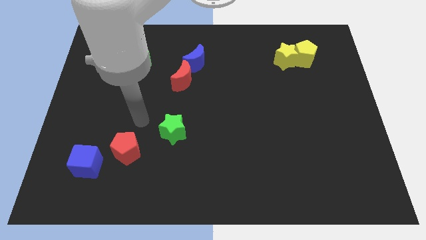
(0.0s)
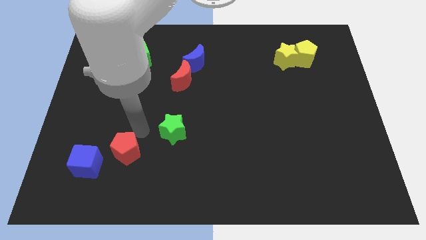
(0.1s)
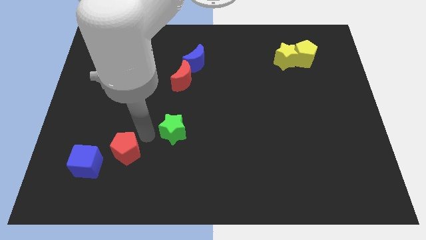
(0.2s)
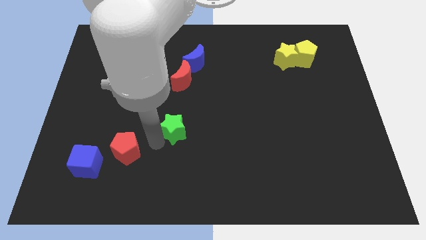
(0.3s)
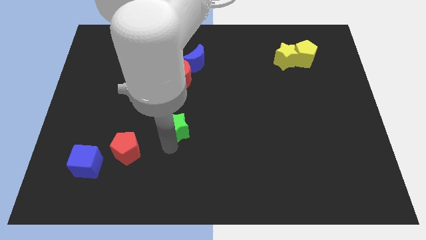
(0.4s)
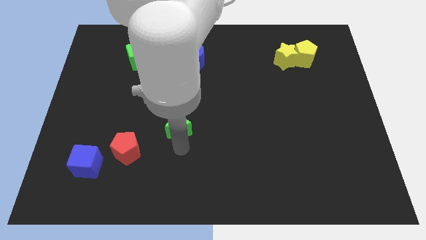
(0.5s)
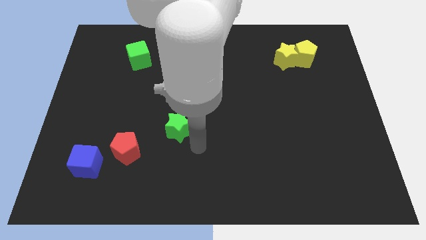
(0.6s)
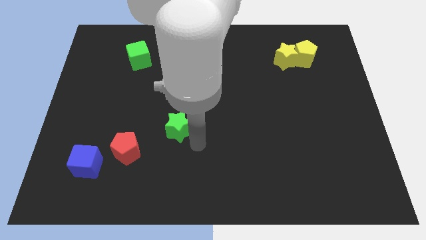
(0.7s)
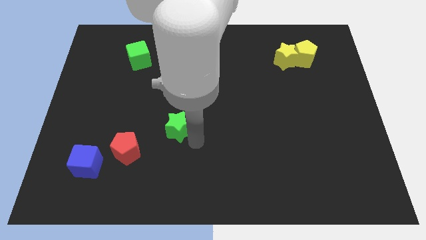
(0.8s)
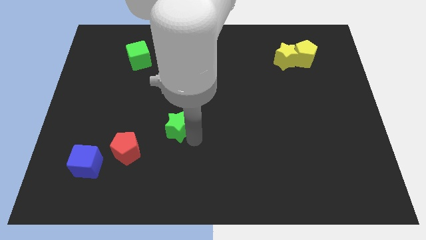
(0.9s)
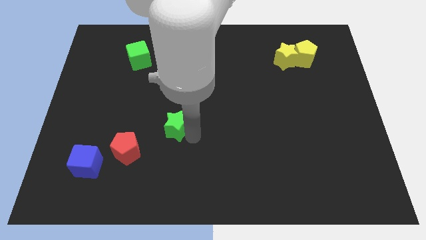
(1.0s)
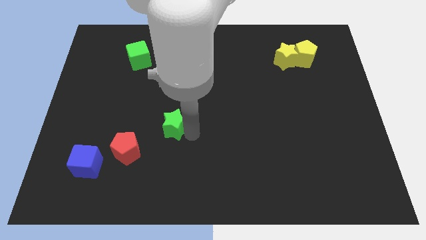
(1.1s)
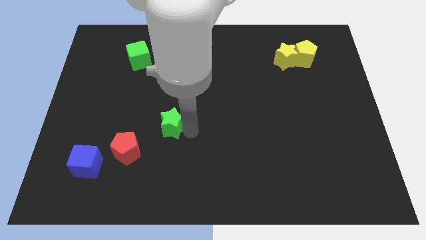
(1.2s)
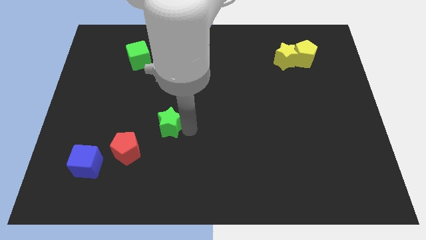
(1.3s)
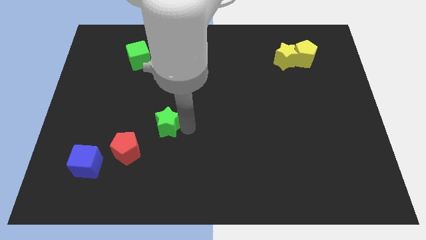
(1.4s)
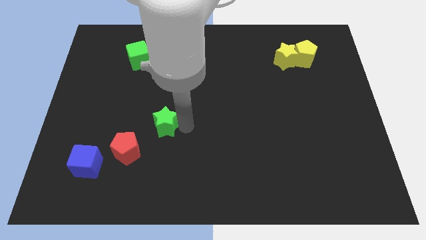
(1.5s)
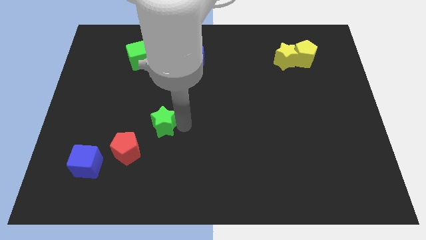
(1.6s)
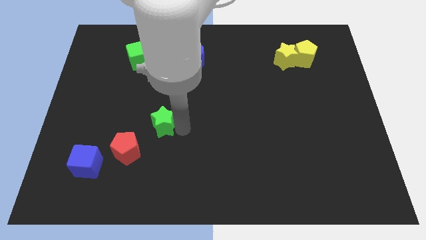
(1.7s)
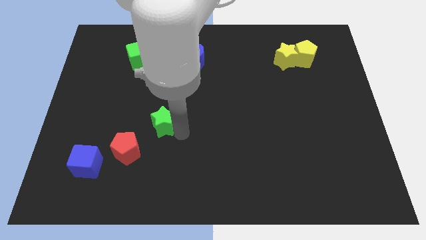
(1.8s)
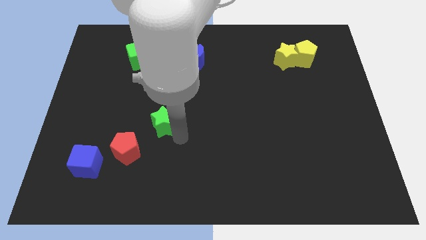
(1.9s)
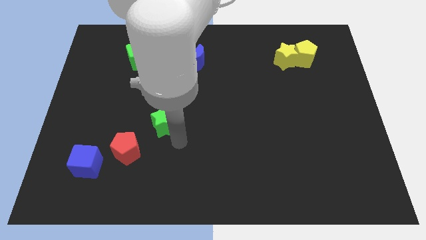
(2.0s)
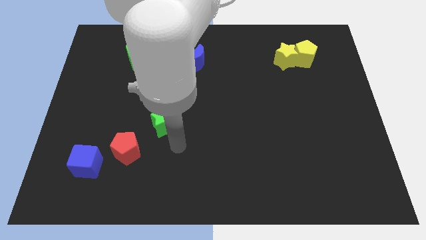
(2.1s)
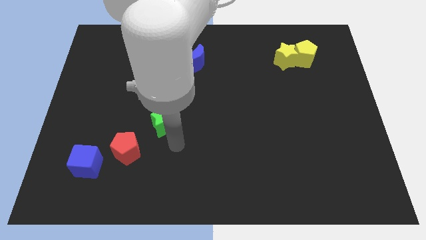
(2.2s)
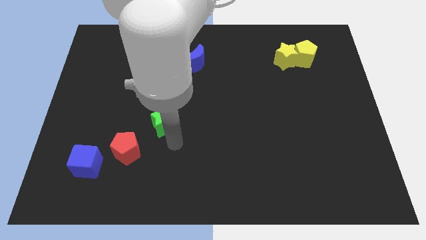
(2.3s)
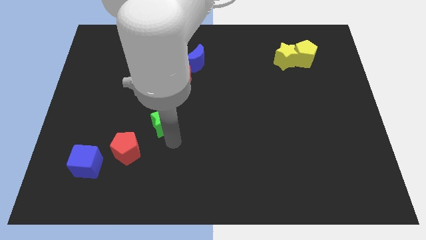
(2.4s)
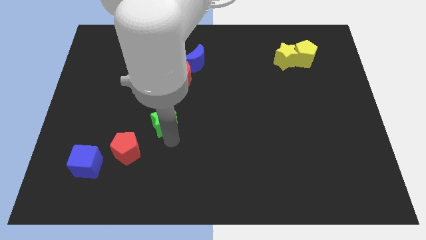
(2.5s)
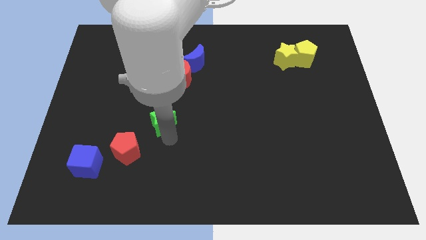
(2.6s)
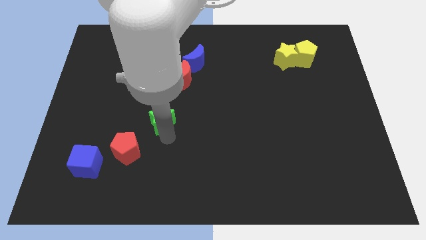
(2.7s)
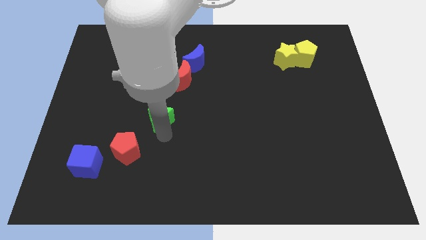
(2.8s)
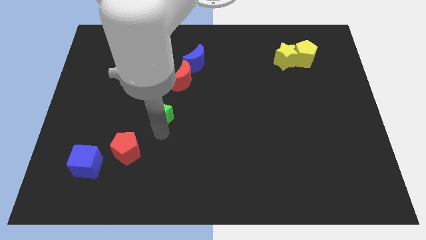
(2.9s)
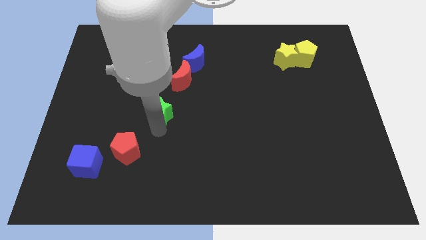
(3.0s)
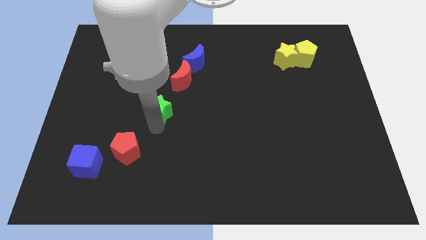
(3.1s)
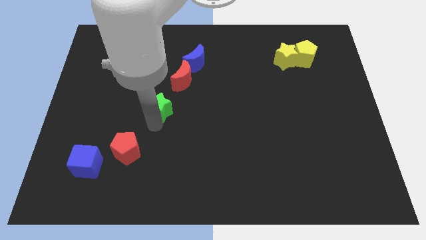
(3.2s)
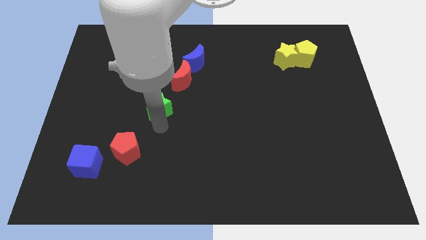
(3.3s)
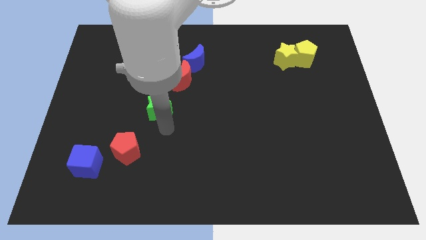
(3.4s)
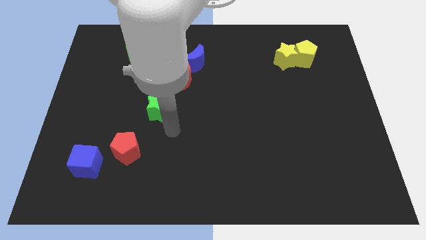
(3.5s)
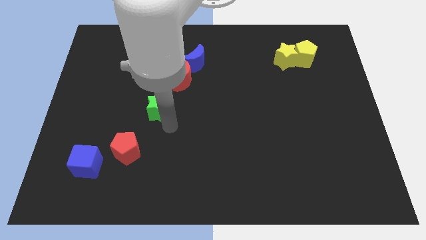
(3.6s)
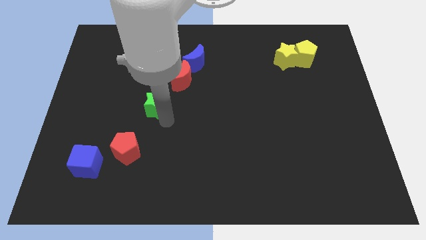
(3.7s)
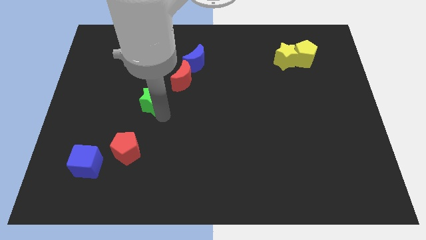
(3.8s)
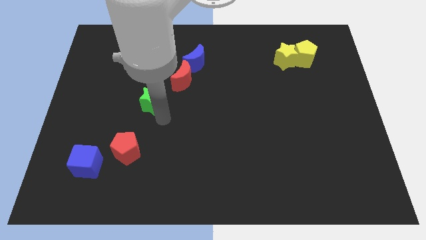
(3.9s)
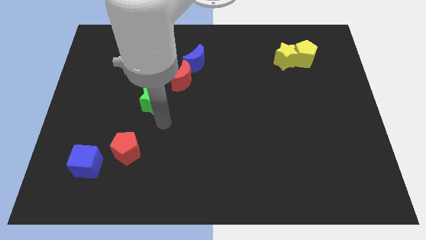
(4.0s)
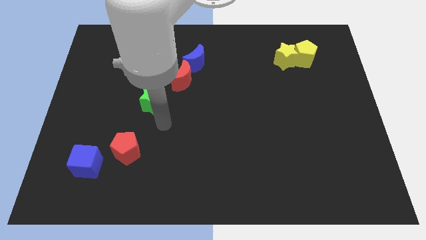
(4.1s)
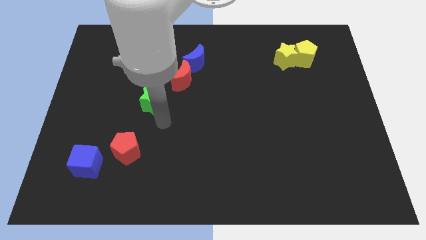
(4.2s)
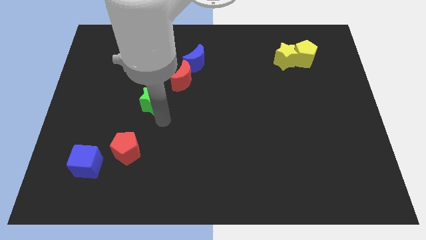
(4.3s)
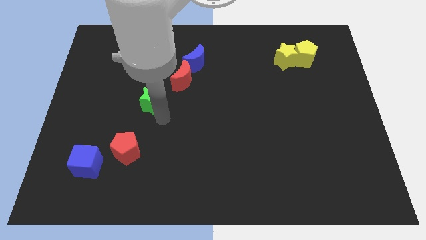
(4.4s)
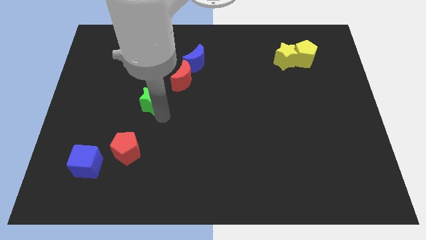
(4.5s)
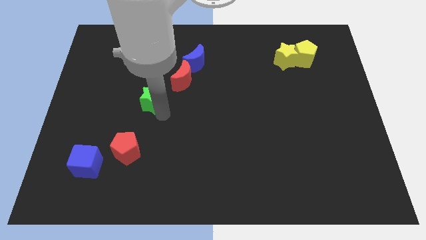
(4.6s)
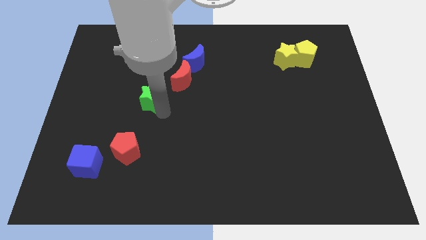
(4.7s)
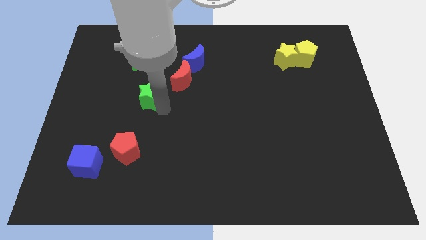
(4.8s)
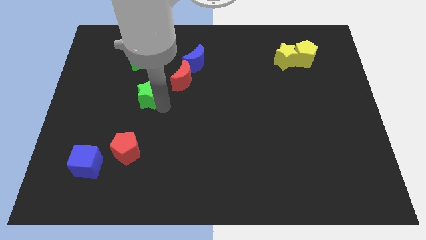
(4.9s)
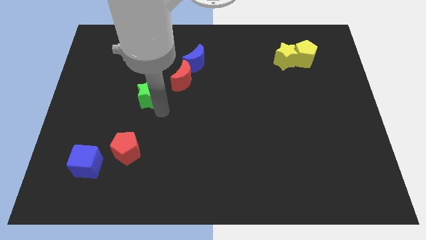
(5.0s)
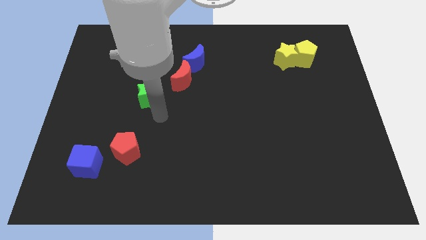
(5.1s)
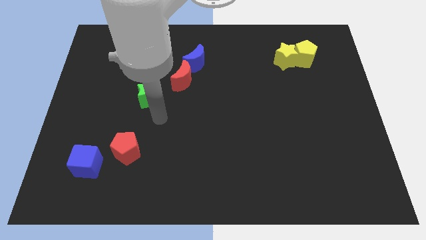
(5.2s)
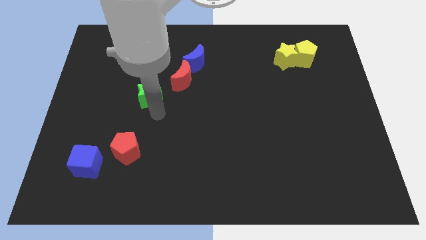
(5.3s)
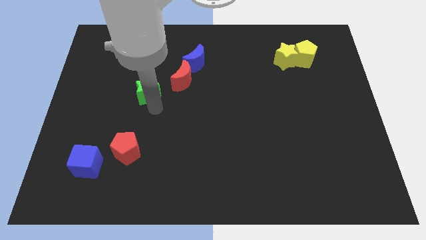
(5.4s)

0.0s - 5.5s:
move the green star left of the red moon

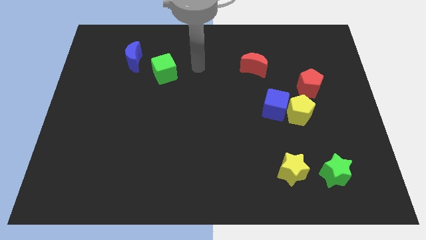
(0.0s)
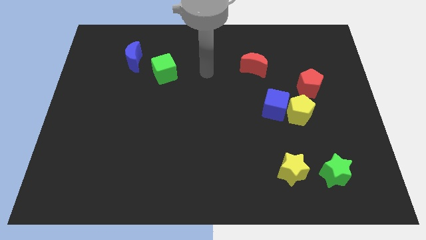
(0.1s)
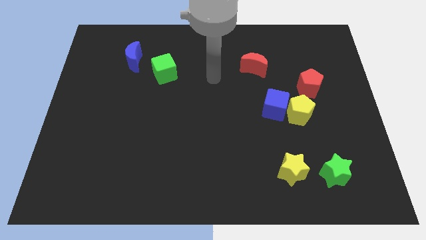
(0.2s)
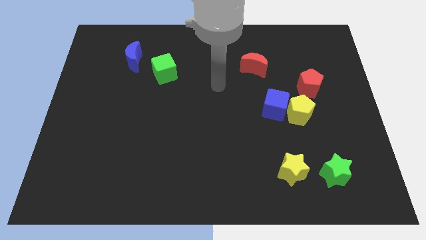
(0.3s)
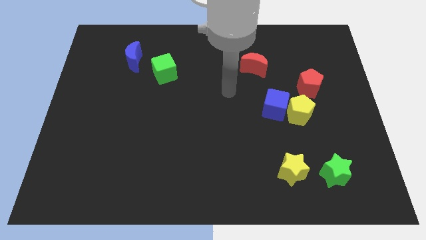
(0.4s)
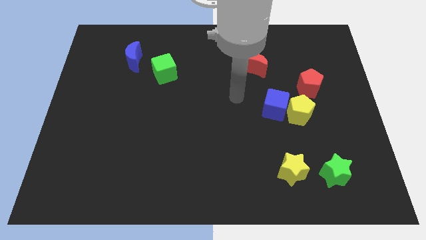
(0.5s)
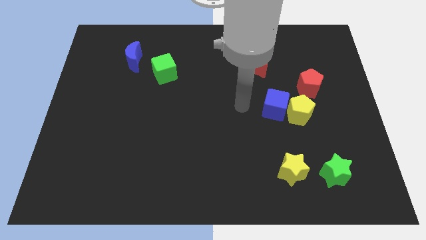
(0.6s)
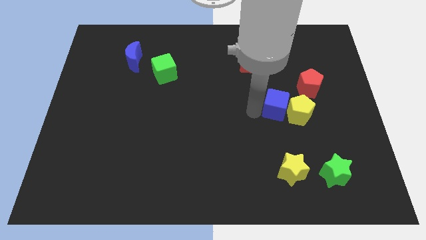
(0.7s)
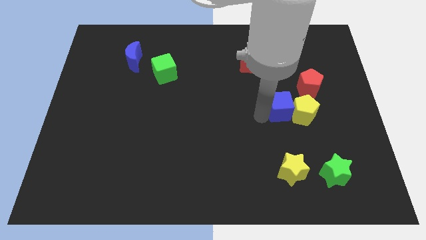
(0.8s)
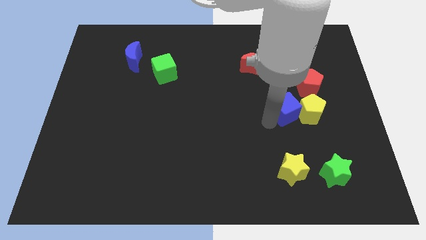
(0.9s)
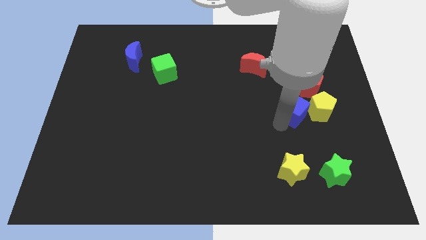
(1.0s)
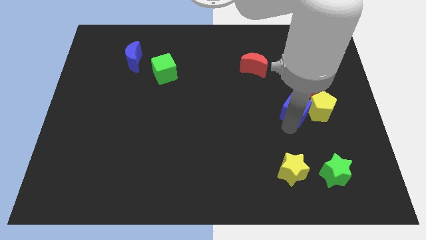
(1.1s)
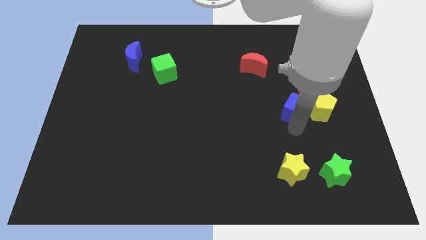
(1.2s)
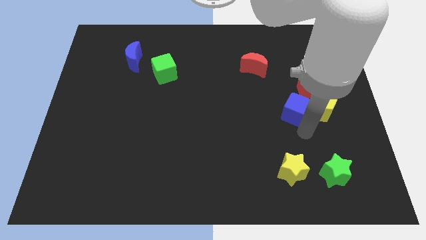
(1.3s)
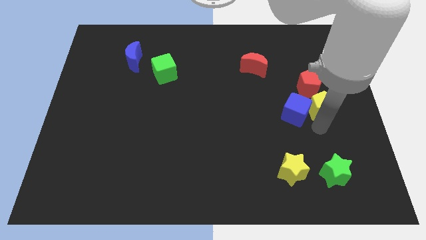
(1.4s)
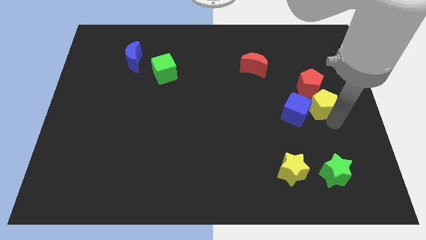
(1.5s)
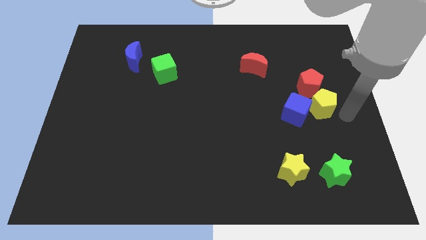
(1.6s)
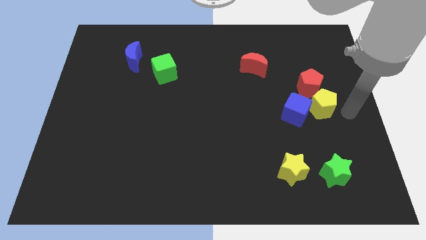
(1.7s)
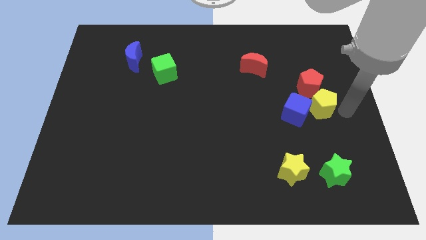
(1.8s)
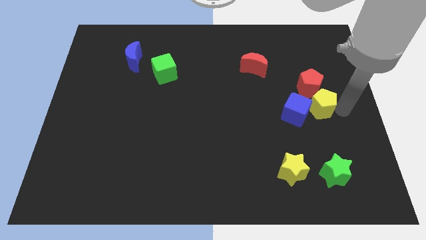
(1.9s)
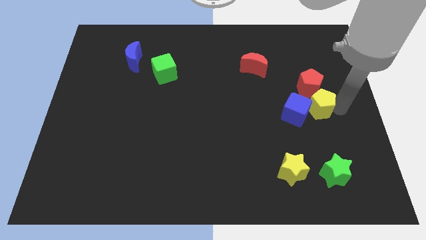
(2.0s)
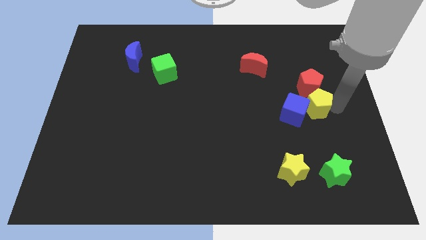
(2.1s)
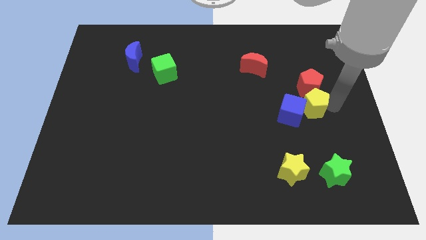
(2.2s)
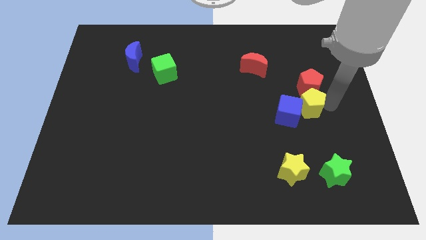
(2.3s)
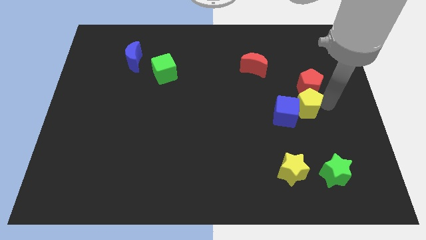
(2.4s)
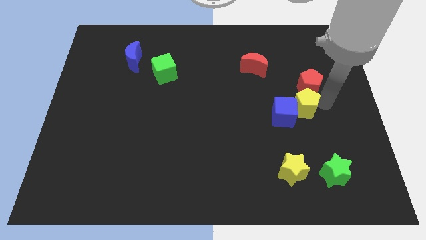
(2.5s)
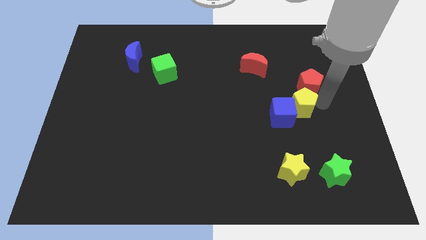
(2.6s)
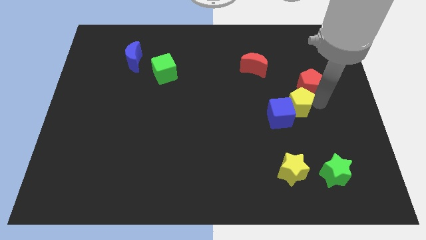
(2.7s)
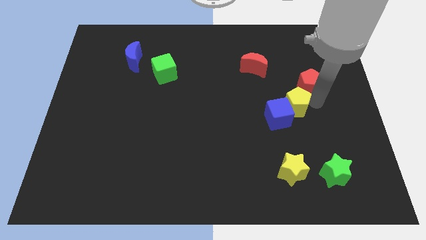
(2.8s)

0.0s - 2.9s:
slide the yellow pentagon to the top of the blue cube
